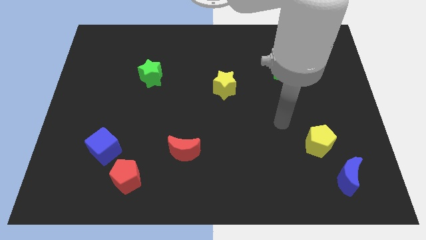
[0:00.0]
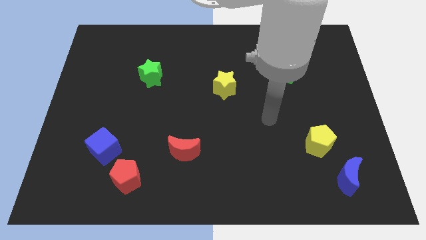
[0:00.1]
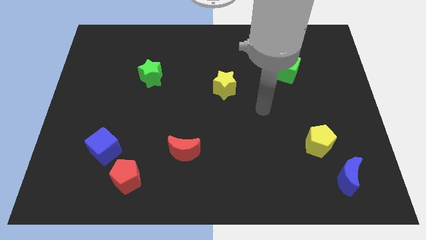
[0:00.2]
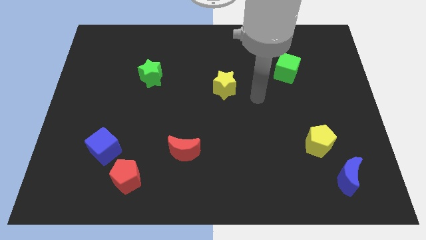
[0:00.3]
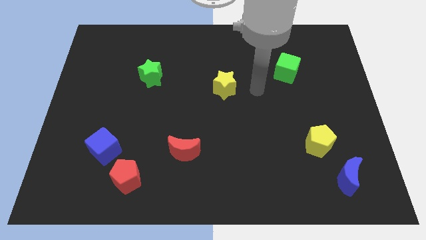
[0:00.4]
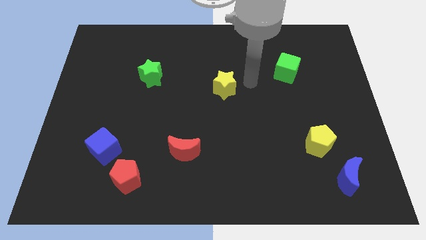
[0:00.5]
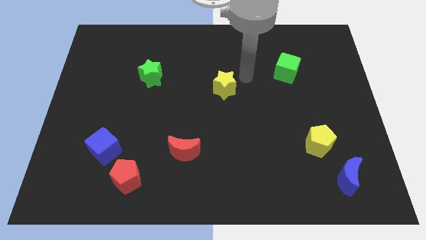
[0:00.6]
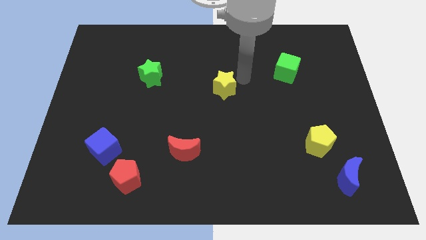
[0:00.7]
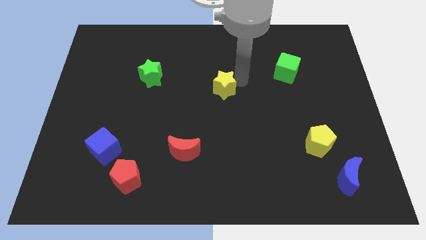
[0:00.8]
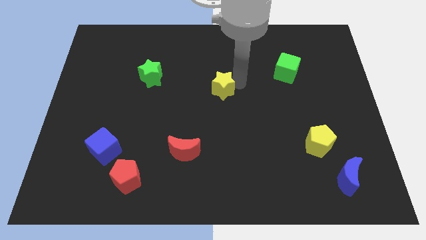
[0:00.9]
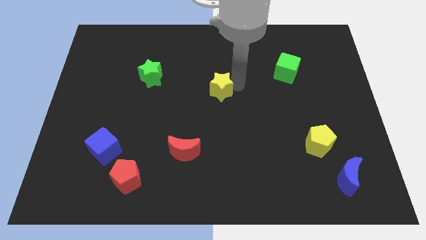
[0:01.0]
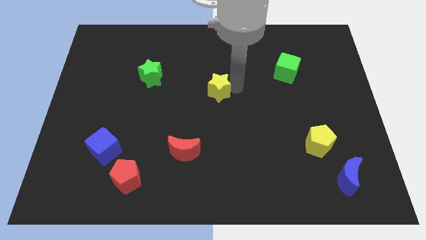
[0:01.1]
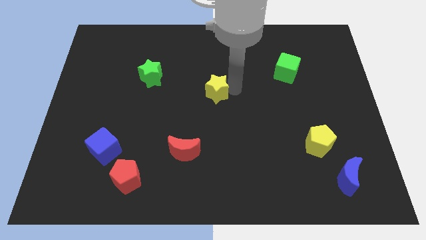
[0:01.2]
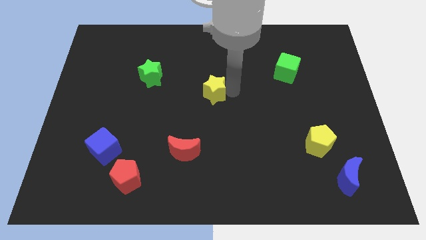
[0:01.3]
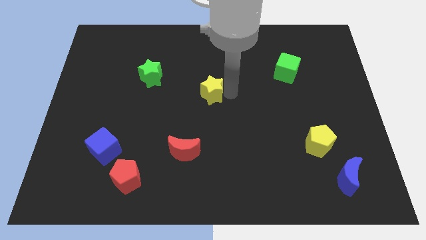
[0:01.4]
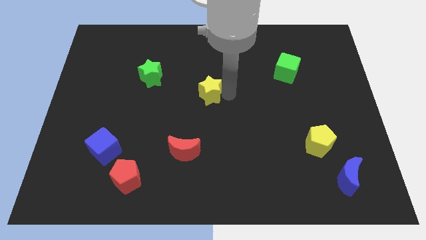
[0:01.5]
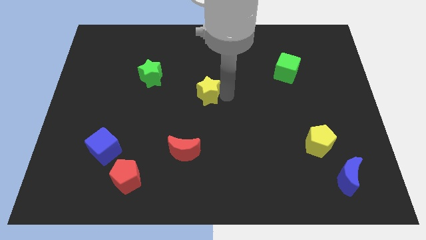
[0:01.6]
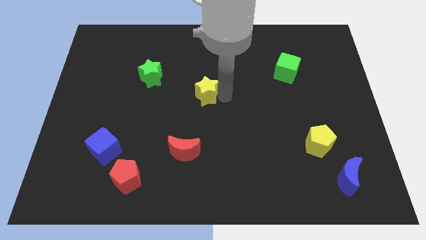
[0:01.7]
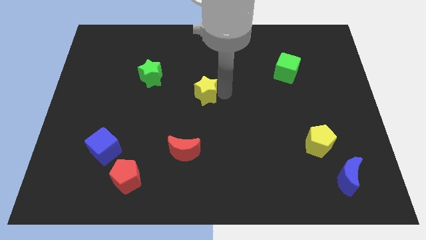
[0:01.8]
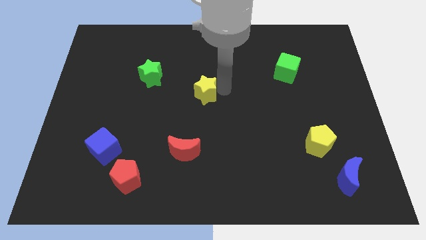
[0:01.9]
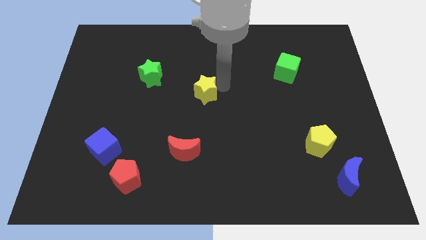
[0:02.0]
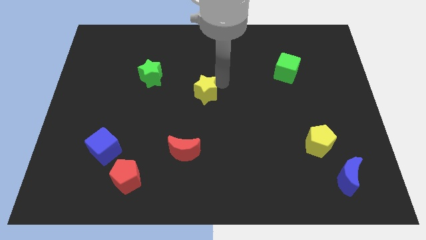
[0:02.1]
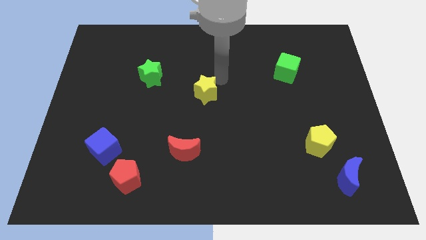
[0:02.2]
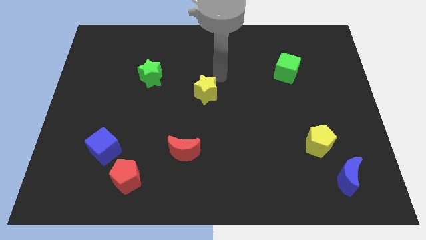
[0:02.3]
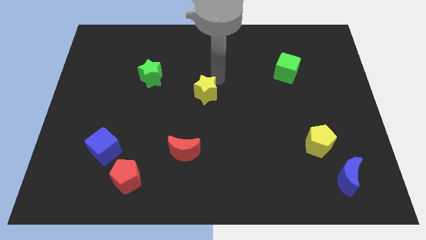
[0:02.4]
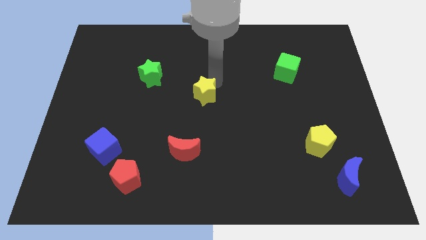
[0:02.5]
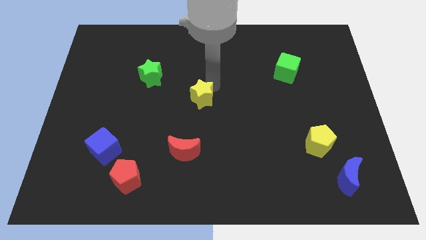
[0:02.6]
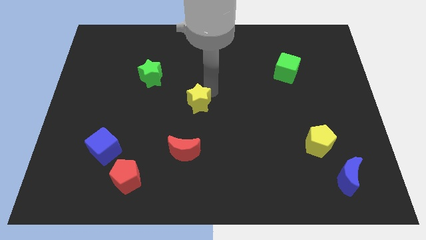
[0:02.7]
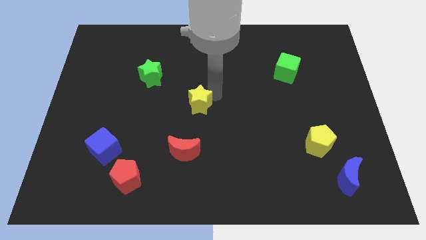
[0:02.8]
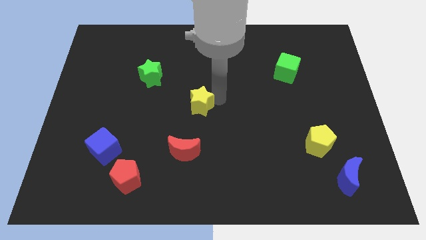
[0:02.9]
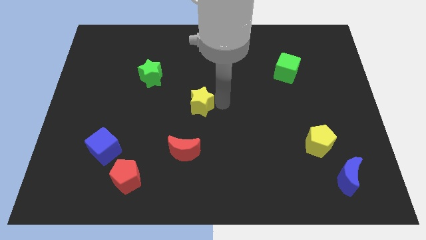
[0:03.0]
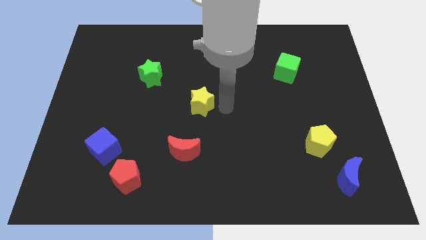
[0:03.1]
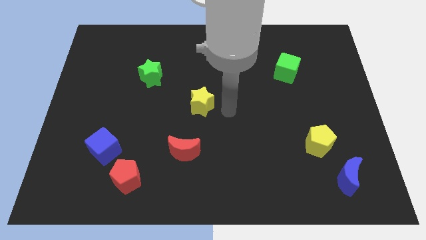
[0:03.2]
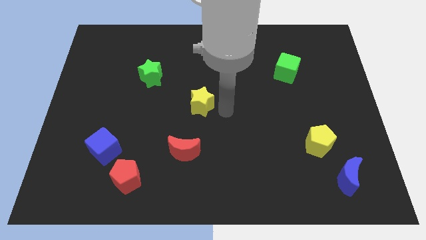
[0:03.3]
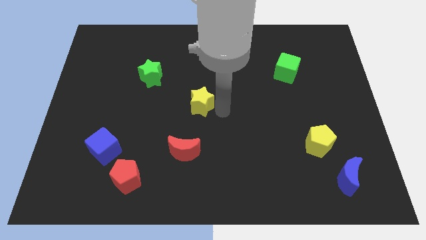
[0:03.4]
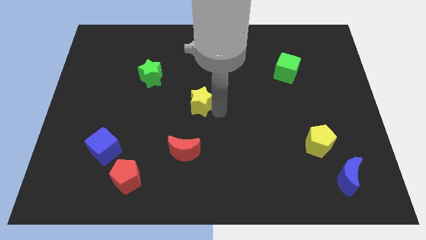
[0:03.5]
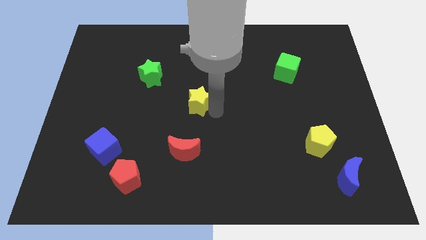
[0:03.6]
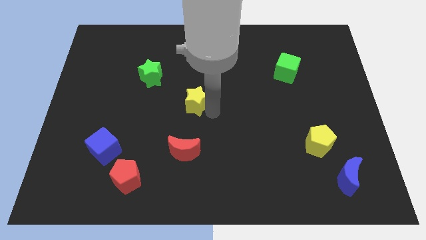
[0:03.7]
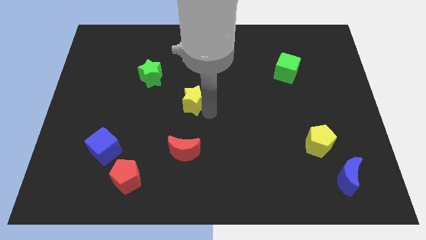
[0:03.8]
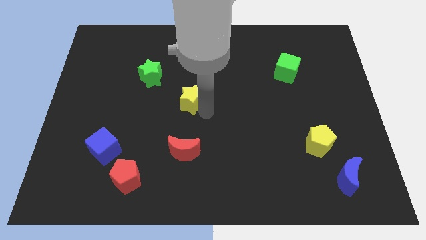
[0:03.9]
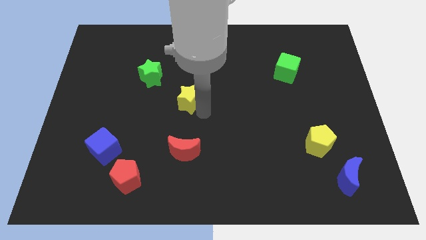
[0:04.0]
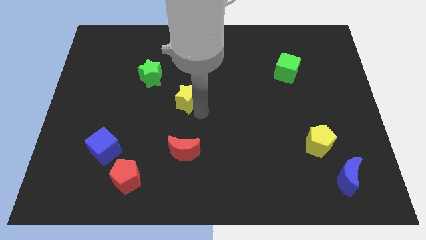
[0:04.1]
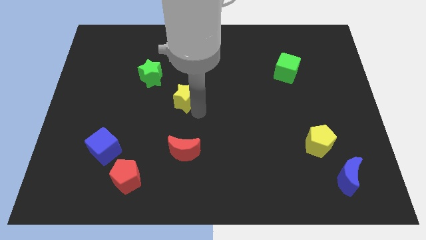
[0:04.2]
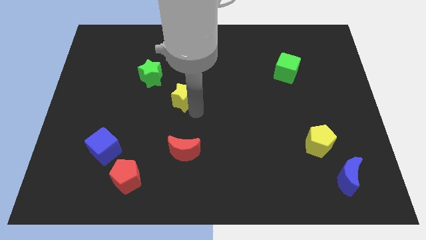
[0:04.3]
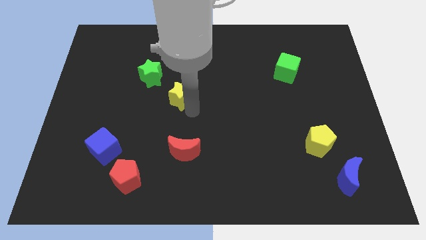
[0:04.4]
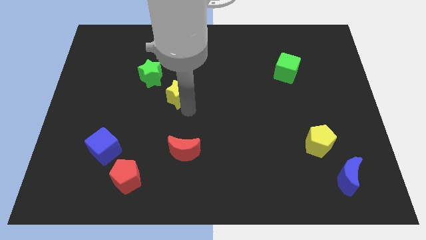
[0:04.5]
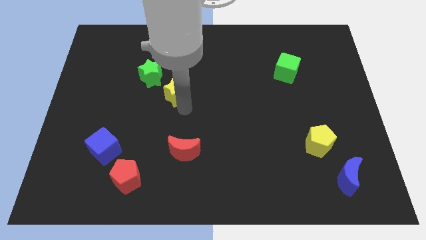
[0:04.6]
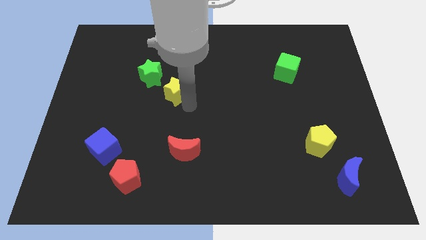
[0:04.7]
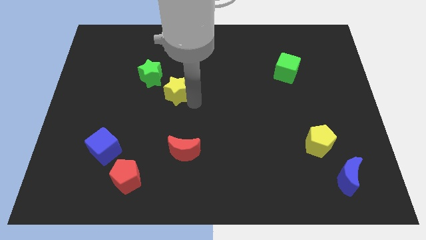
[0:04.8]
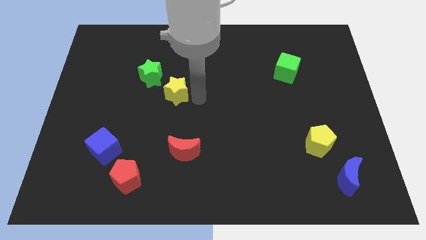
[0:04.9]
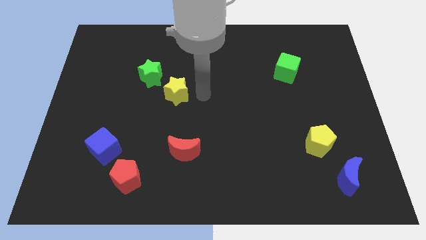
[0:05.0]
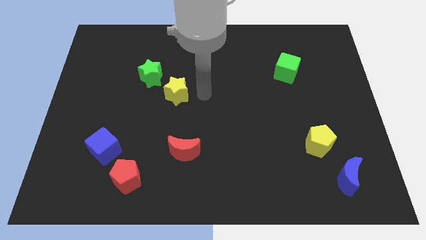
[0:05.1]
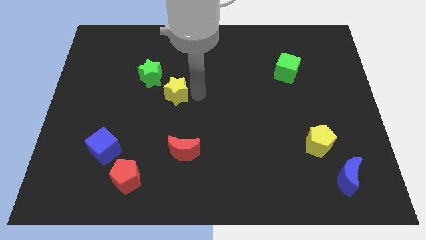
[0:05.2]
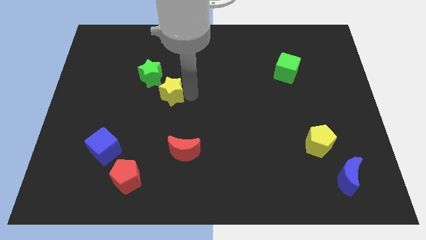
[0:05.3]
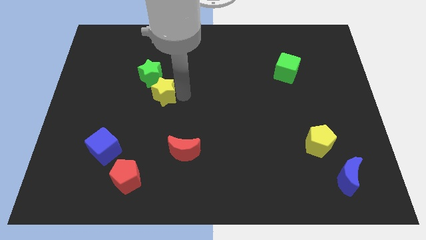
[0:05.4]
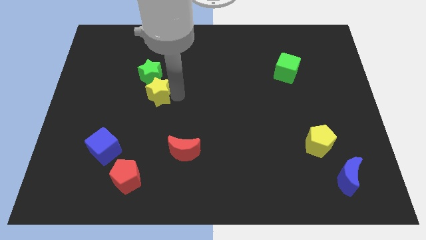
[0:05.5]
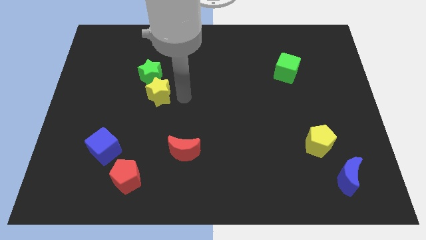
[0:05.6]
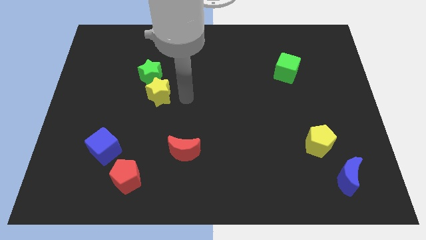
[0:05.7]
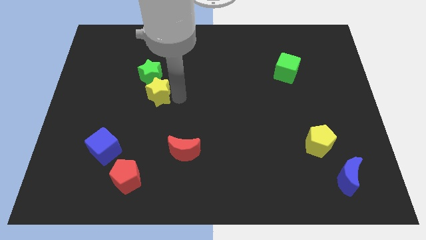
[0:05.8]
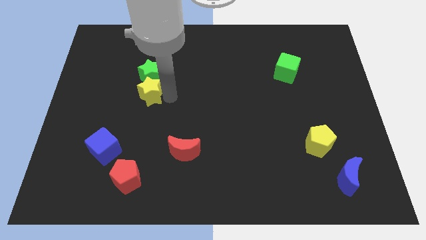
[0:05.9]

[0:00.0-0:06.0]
slide the yellow star diagonally down and to the left of the green star

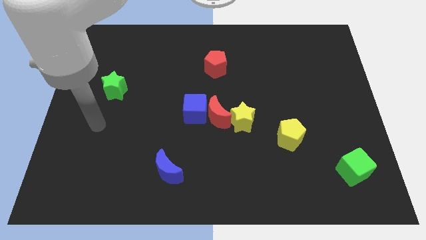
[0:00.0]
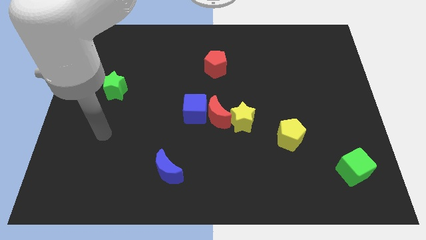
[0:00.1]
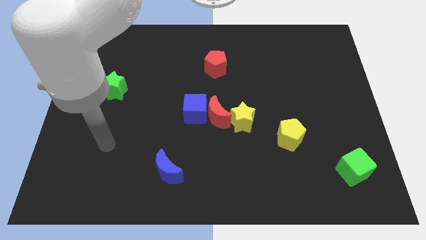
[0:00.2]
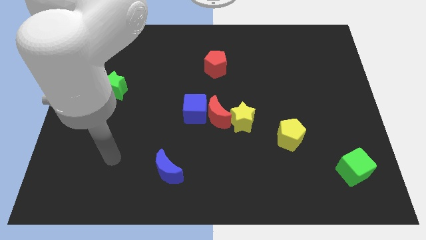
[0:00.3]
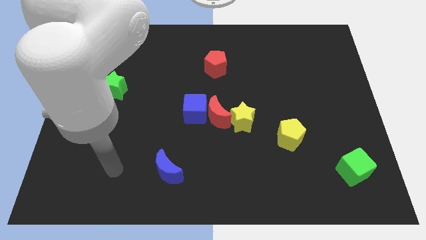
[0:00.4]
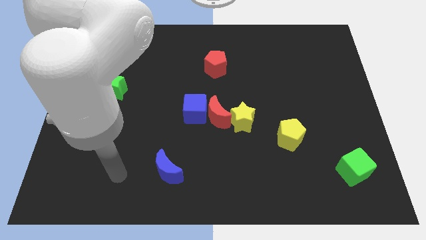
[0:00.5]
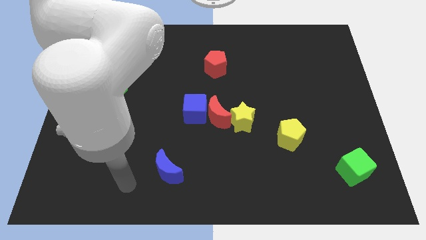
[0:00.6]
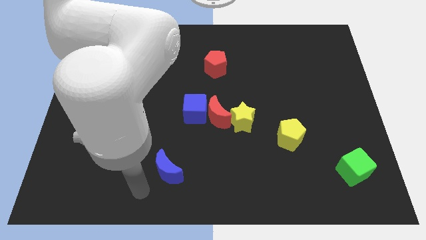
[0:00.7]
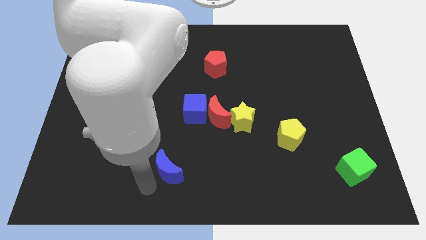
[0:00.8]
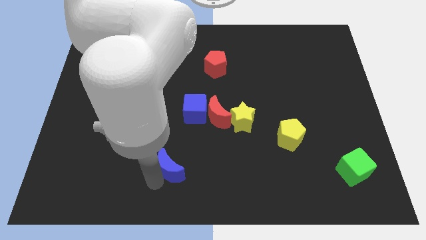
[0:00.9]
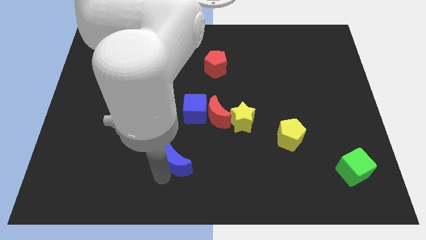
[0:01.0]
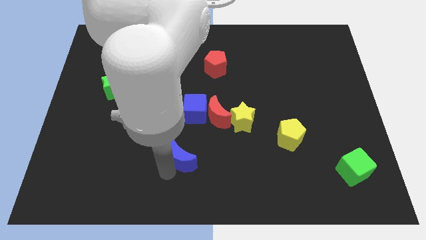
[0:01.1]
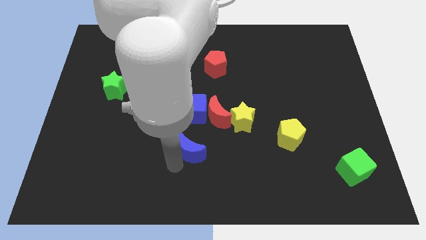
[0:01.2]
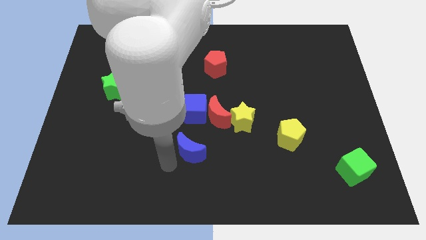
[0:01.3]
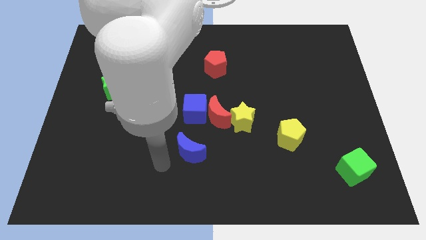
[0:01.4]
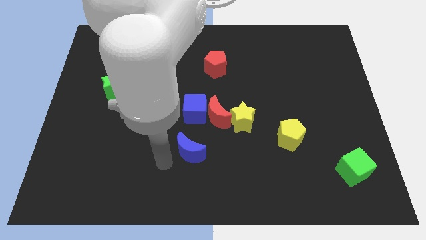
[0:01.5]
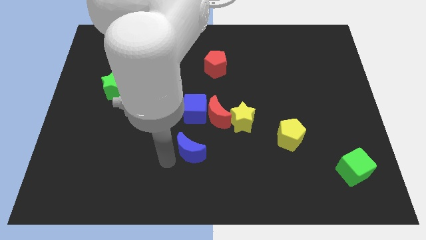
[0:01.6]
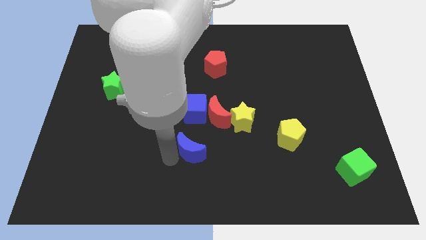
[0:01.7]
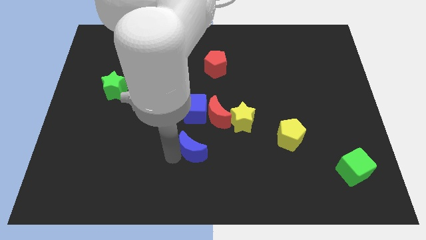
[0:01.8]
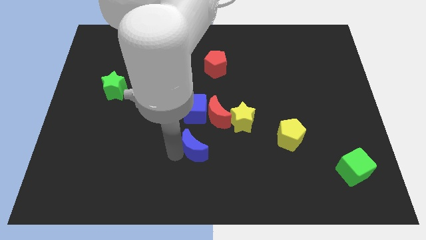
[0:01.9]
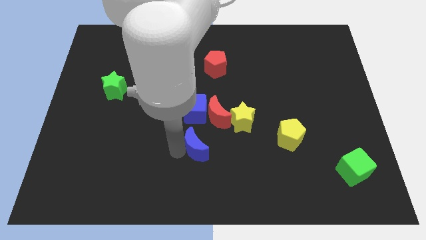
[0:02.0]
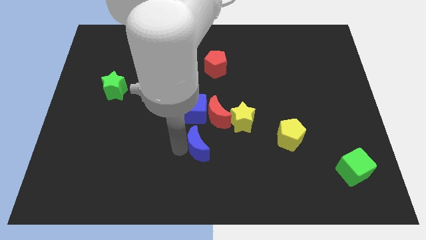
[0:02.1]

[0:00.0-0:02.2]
put the blue moon diagonally down and to the left of the yellow star
